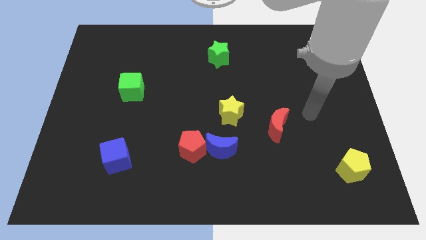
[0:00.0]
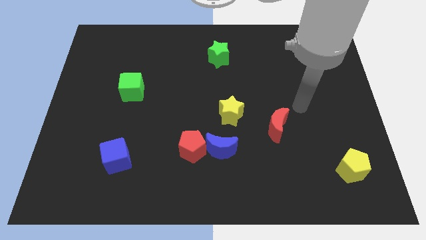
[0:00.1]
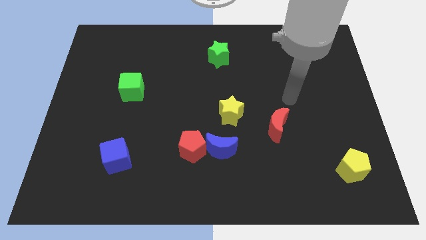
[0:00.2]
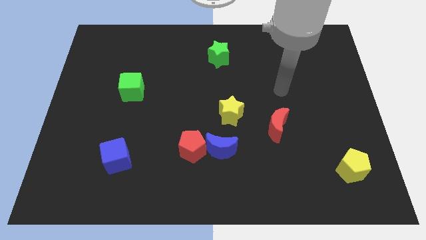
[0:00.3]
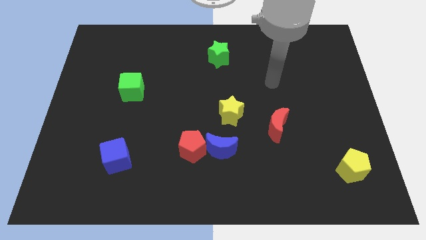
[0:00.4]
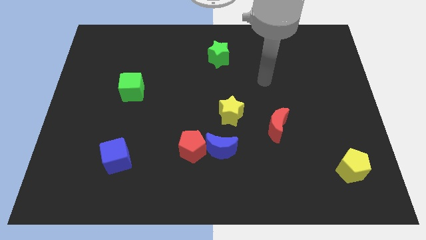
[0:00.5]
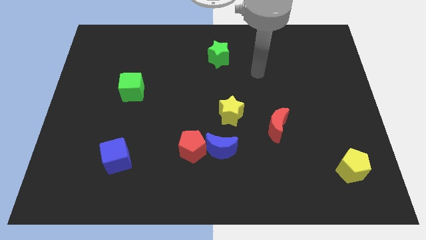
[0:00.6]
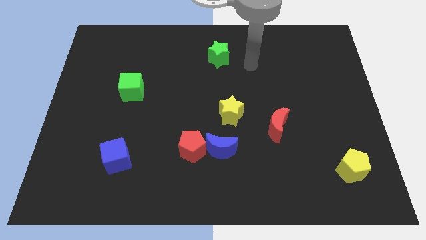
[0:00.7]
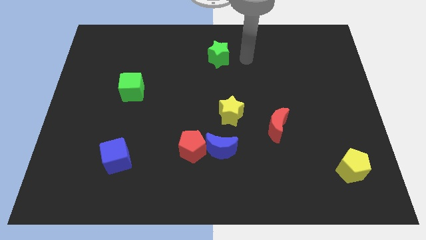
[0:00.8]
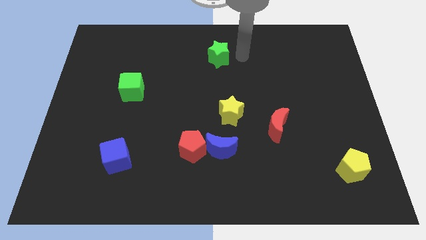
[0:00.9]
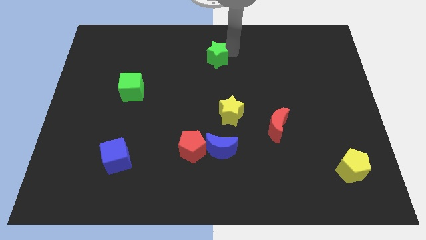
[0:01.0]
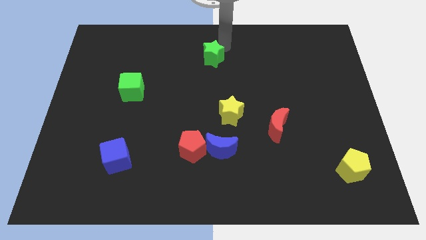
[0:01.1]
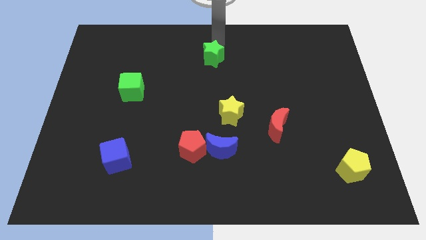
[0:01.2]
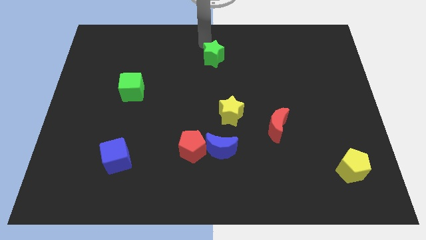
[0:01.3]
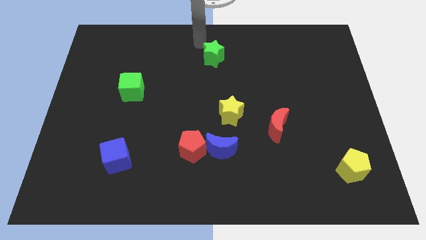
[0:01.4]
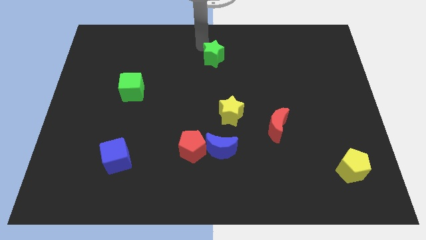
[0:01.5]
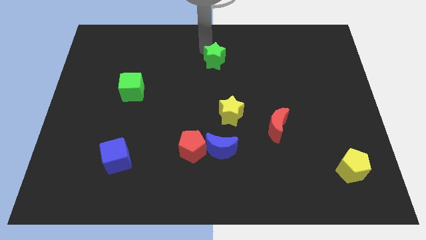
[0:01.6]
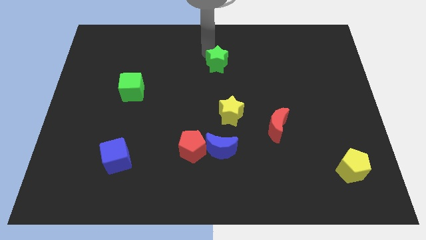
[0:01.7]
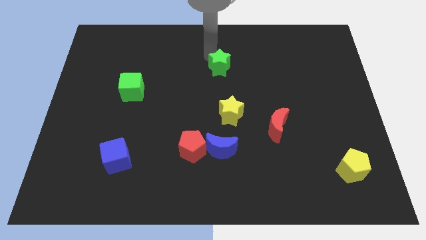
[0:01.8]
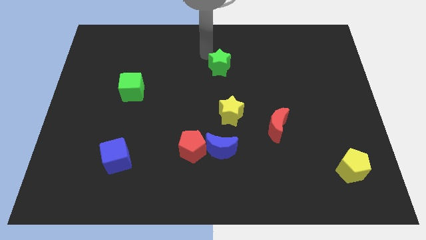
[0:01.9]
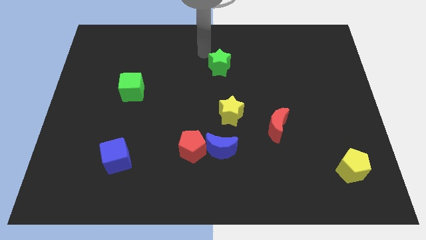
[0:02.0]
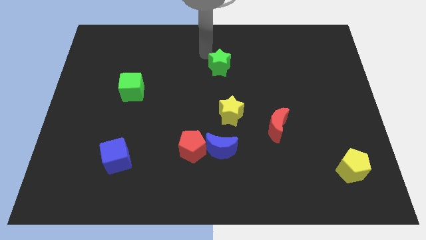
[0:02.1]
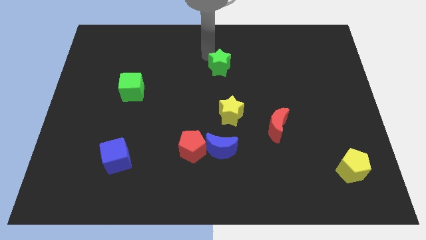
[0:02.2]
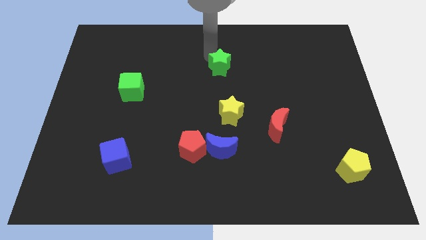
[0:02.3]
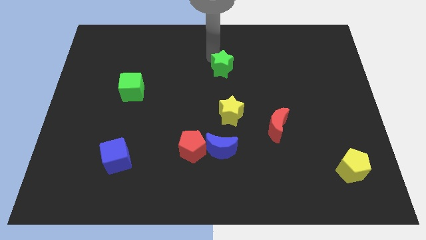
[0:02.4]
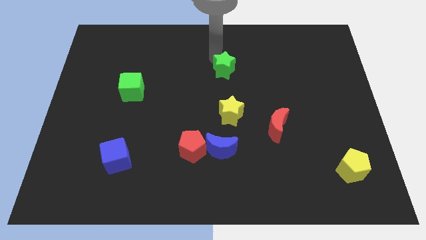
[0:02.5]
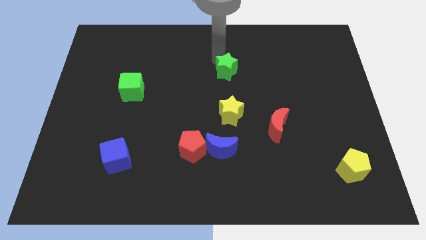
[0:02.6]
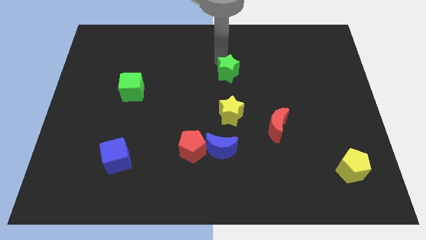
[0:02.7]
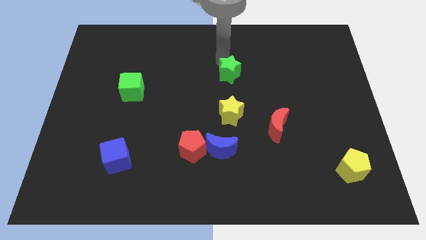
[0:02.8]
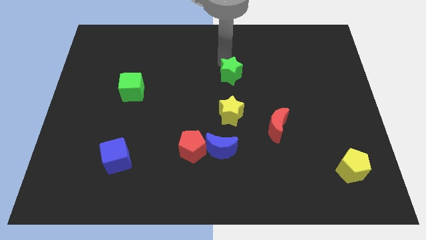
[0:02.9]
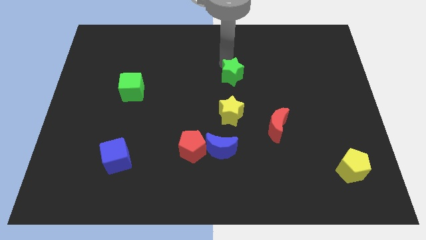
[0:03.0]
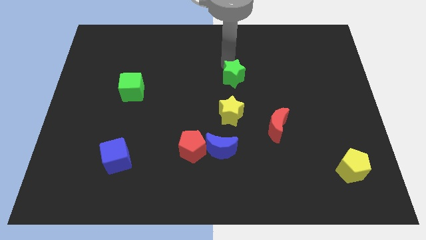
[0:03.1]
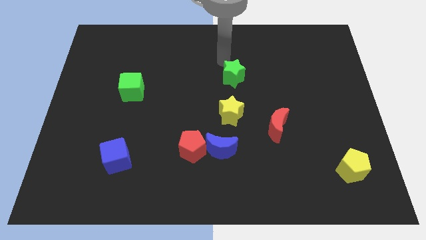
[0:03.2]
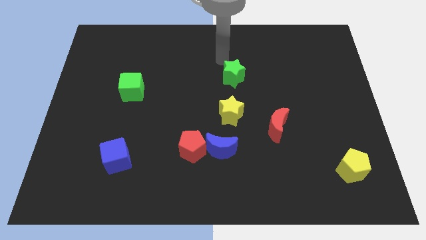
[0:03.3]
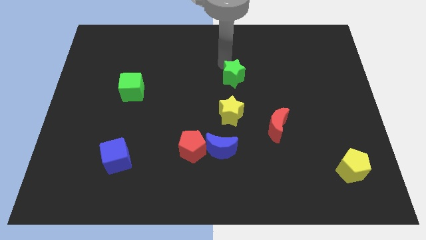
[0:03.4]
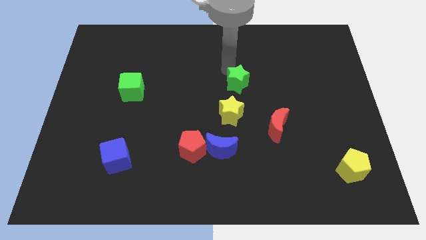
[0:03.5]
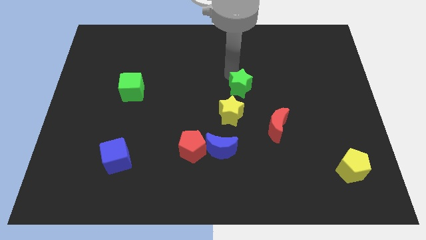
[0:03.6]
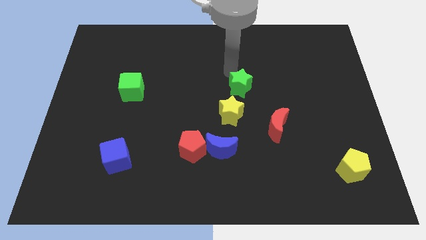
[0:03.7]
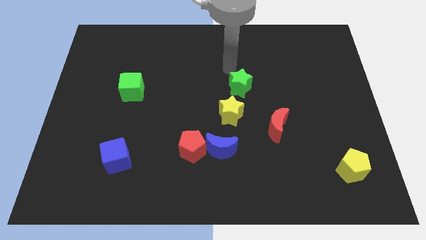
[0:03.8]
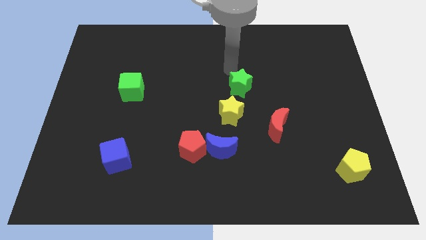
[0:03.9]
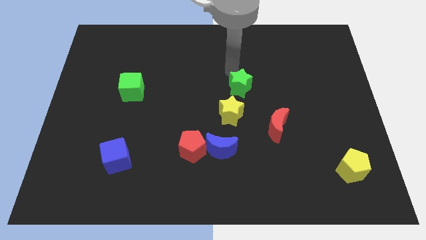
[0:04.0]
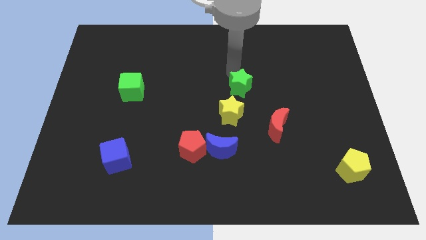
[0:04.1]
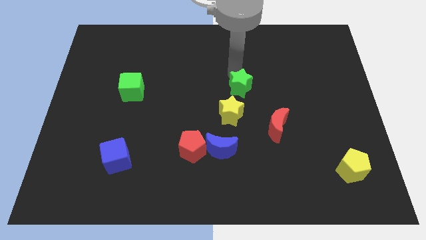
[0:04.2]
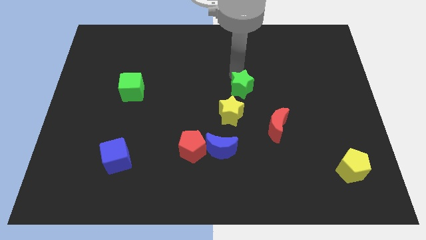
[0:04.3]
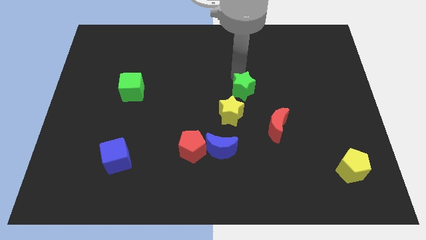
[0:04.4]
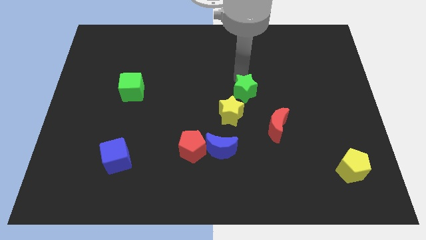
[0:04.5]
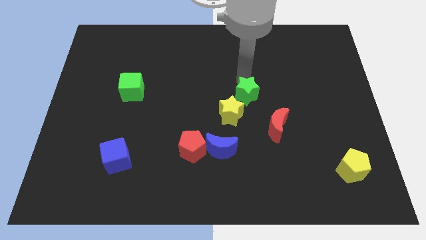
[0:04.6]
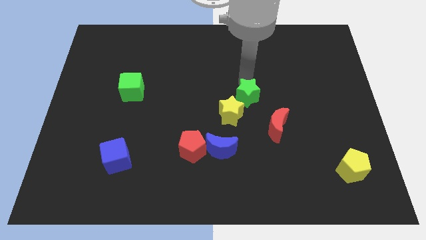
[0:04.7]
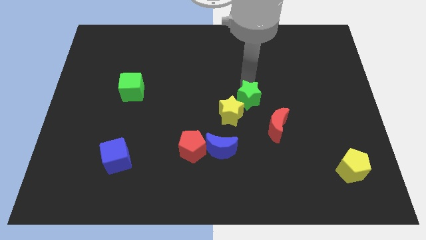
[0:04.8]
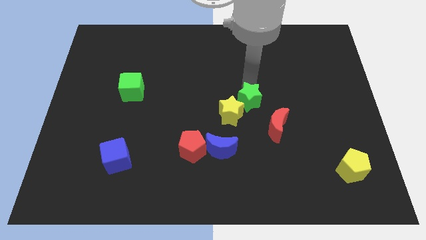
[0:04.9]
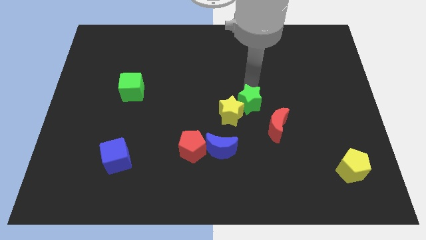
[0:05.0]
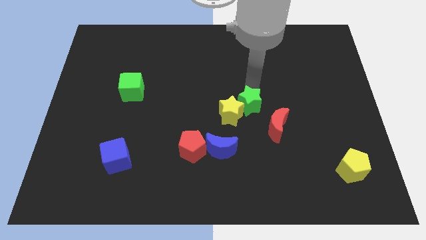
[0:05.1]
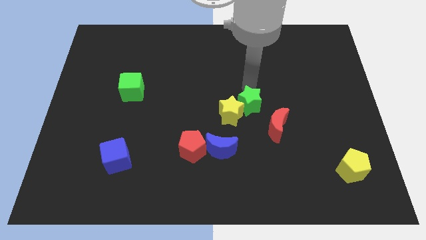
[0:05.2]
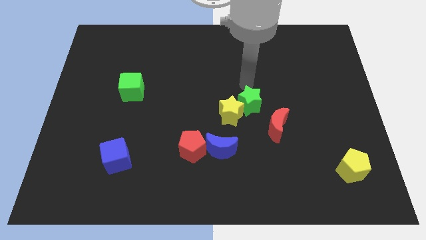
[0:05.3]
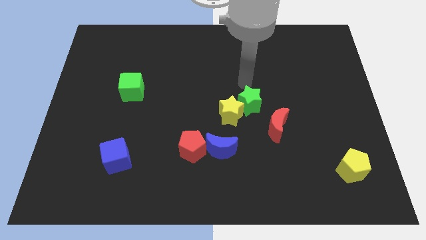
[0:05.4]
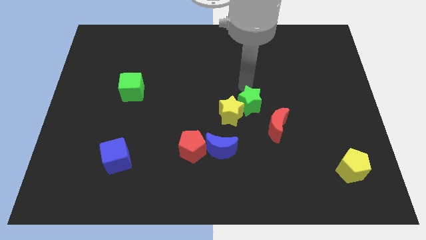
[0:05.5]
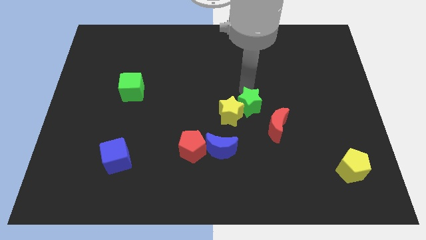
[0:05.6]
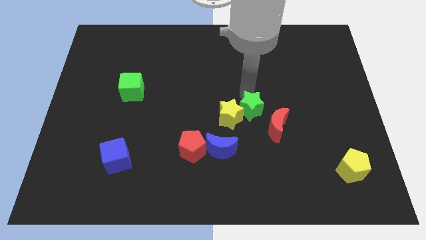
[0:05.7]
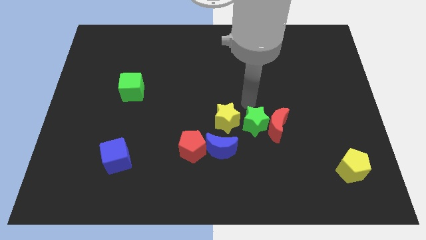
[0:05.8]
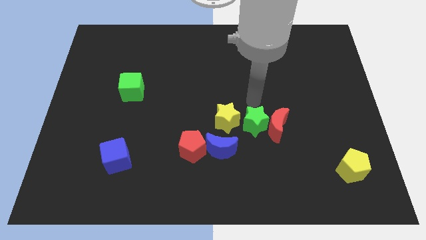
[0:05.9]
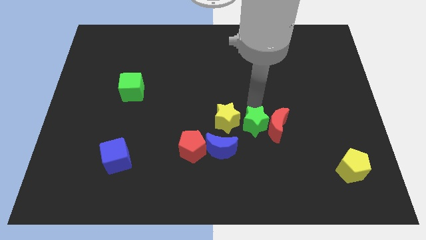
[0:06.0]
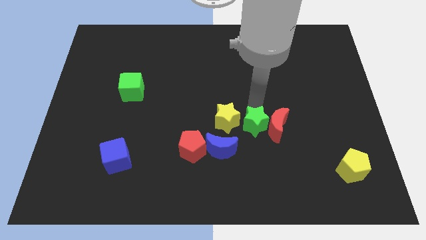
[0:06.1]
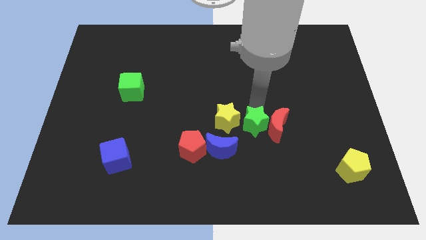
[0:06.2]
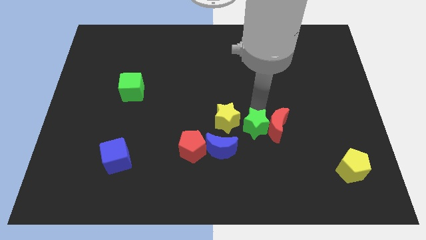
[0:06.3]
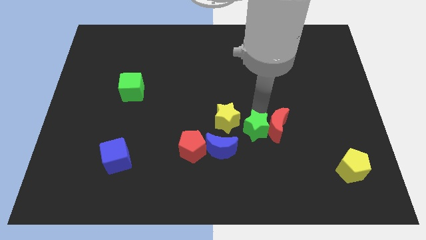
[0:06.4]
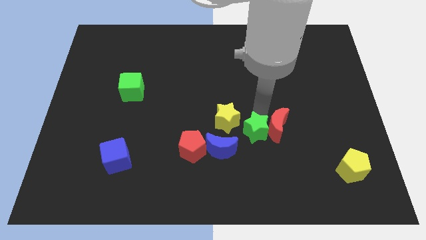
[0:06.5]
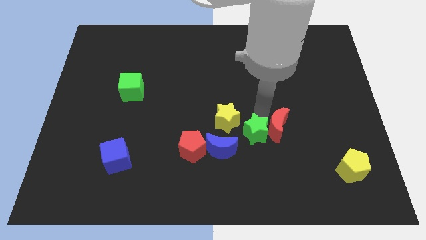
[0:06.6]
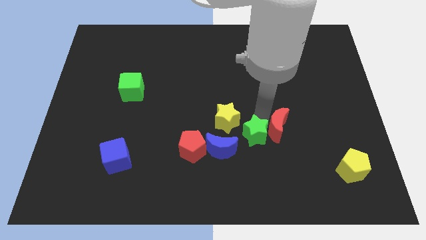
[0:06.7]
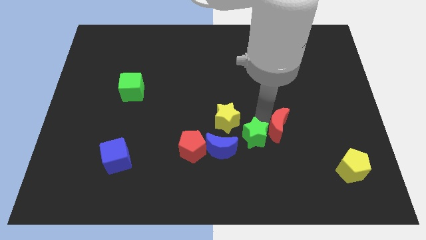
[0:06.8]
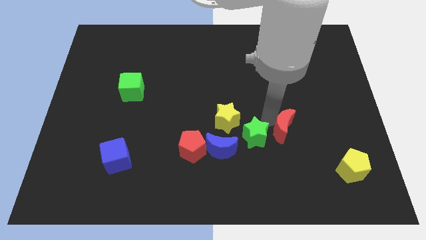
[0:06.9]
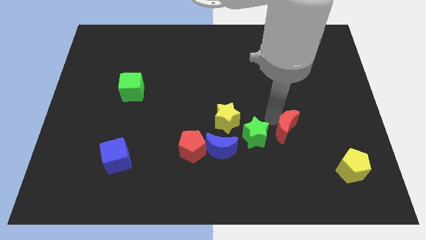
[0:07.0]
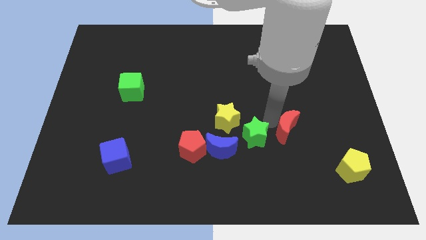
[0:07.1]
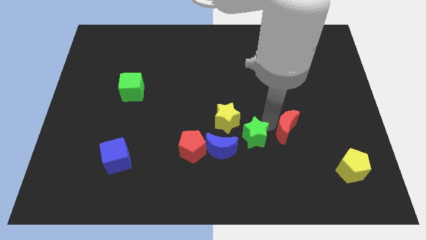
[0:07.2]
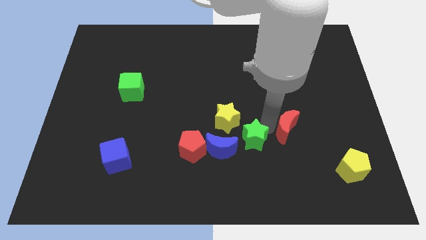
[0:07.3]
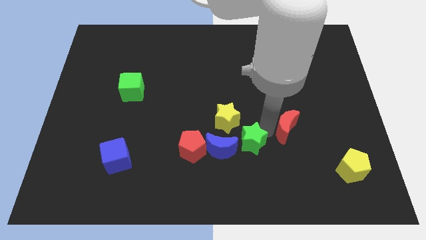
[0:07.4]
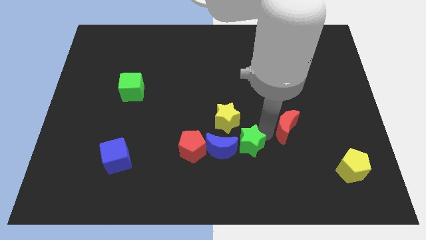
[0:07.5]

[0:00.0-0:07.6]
slide the green star below the yellow star
